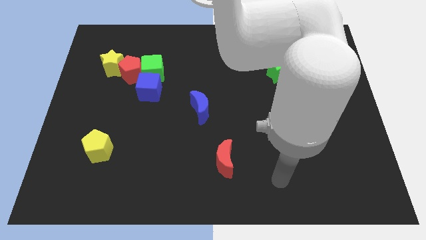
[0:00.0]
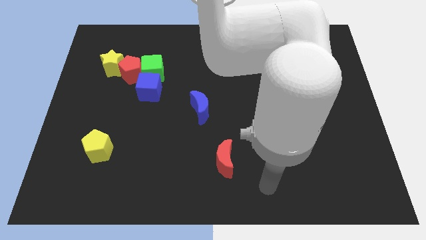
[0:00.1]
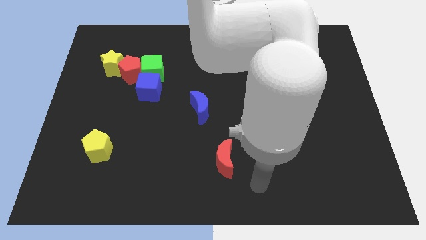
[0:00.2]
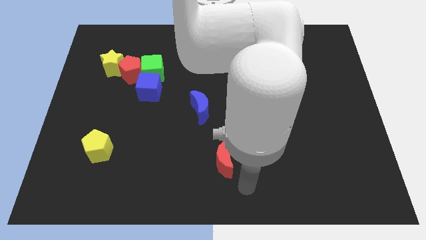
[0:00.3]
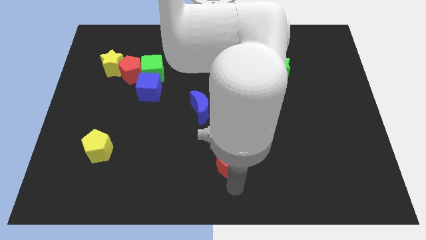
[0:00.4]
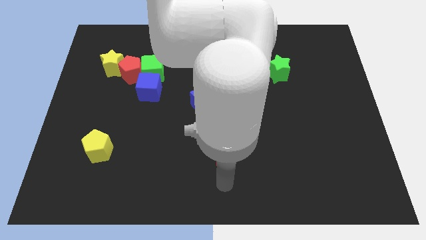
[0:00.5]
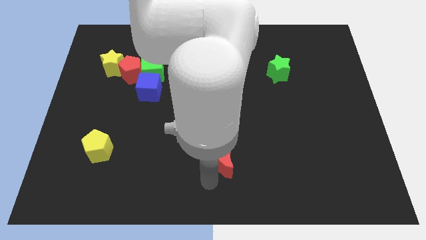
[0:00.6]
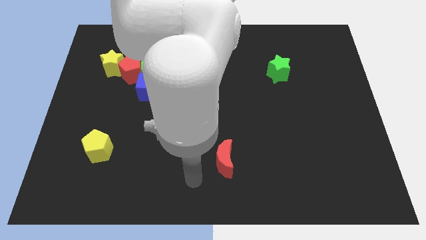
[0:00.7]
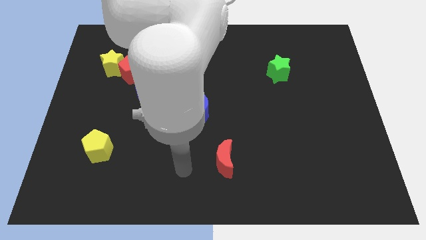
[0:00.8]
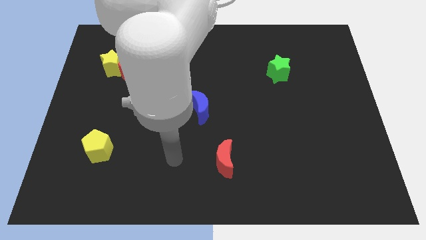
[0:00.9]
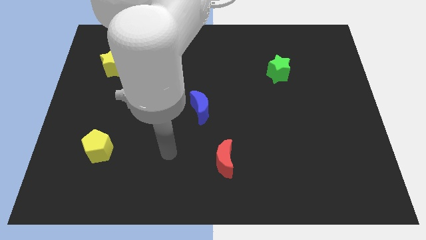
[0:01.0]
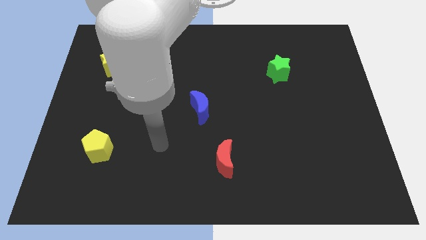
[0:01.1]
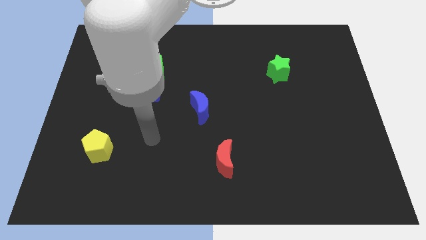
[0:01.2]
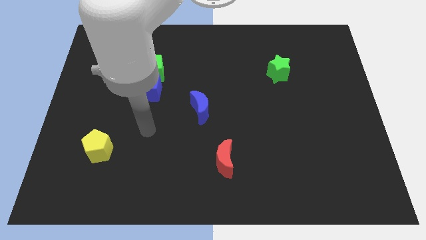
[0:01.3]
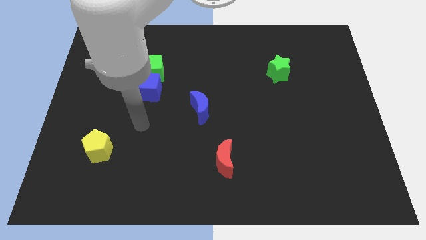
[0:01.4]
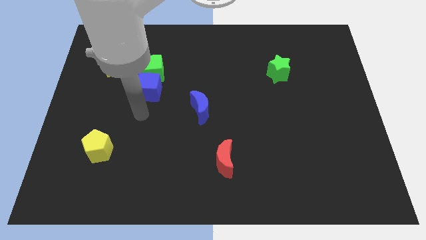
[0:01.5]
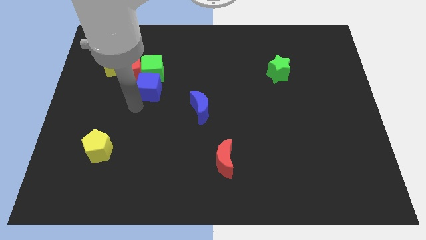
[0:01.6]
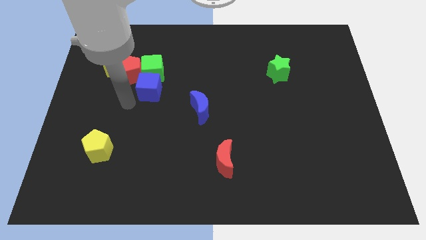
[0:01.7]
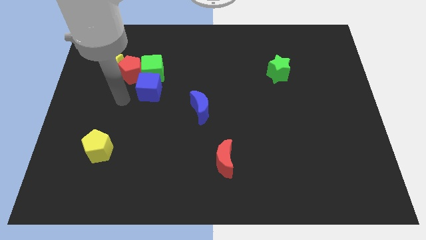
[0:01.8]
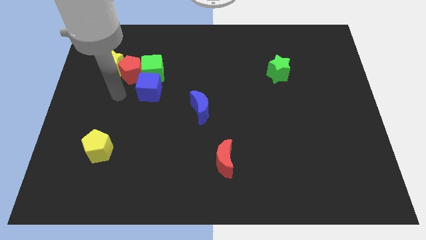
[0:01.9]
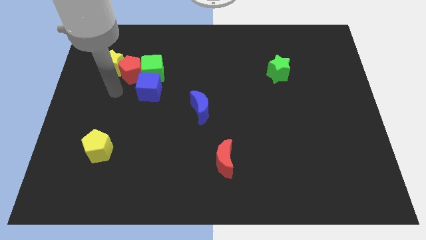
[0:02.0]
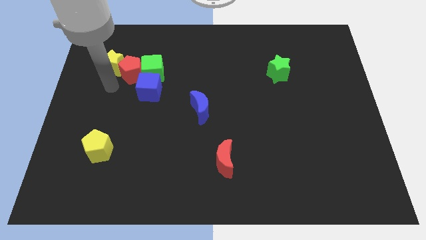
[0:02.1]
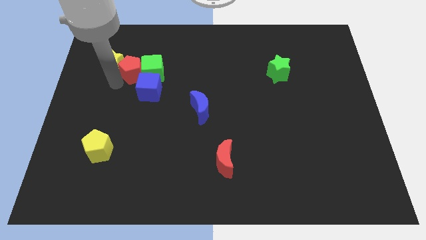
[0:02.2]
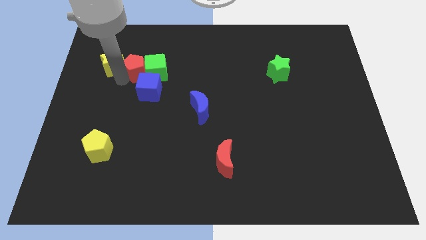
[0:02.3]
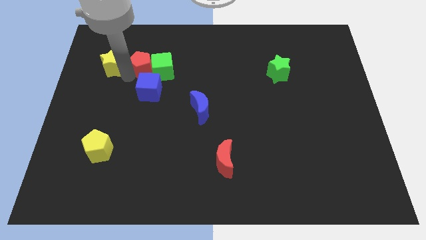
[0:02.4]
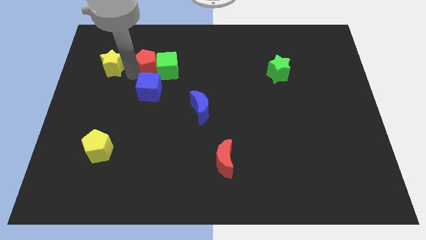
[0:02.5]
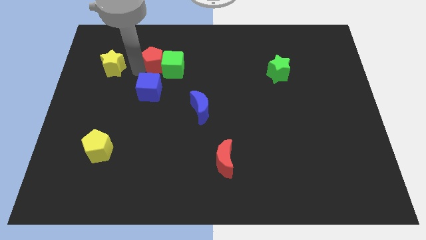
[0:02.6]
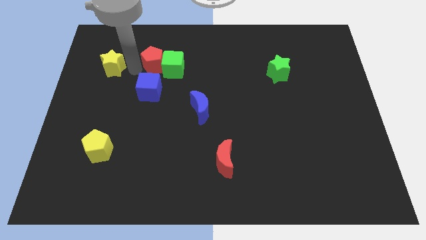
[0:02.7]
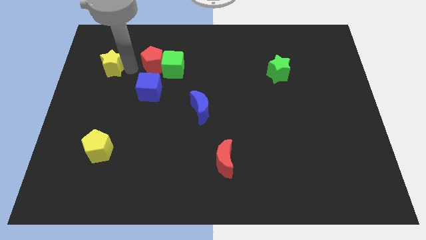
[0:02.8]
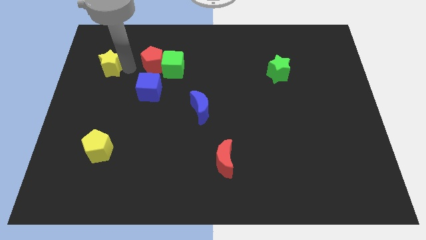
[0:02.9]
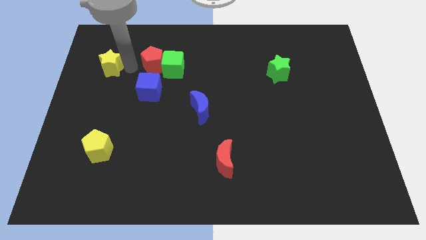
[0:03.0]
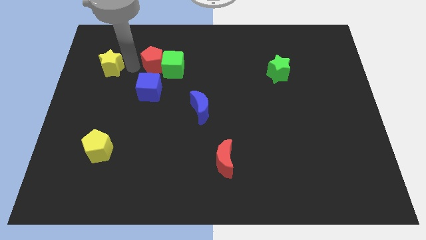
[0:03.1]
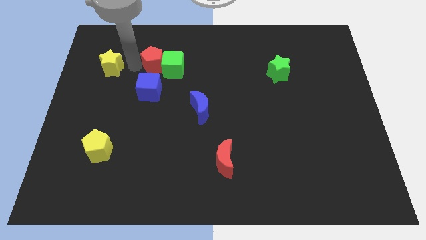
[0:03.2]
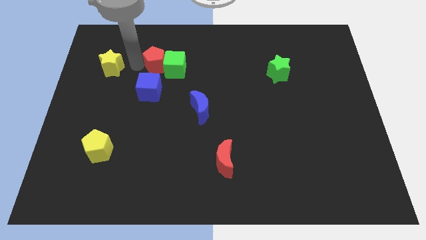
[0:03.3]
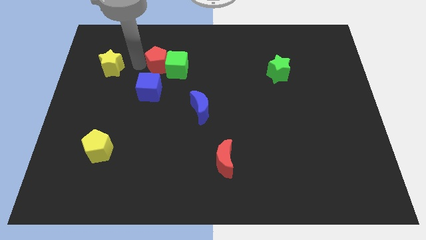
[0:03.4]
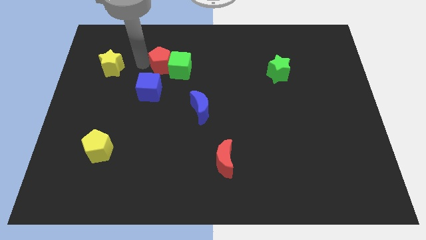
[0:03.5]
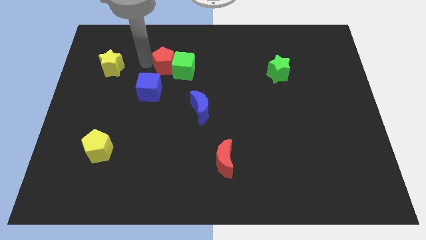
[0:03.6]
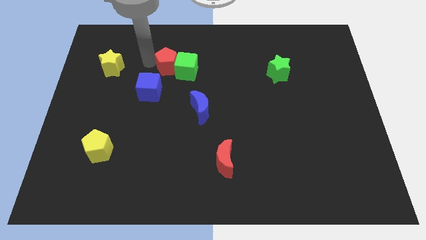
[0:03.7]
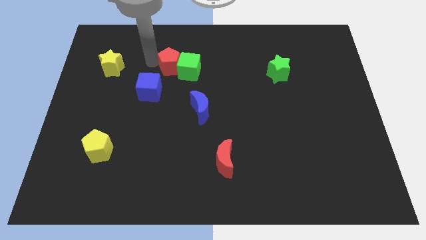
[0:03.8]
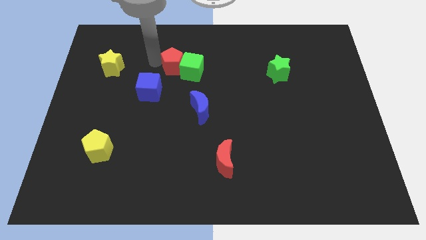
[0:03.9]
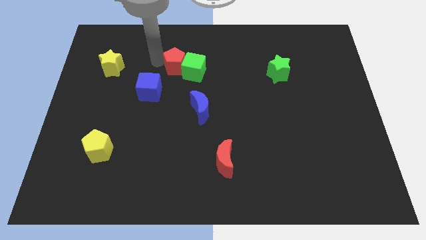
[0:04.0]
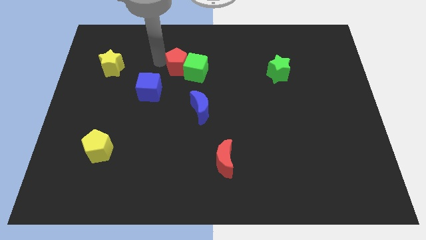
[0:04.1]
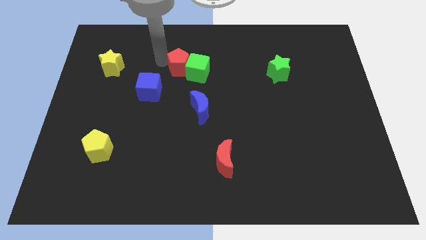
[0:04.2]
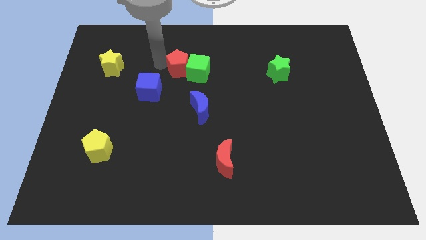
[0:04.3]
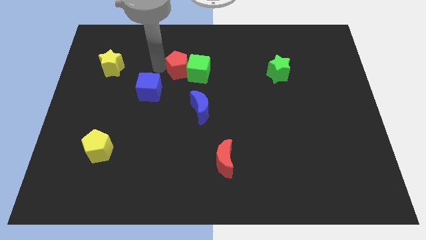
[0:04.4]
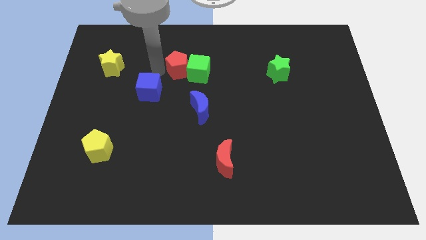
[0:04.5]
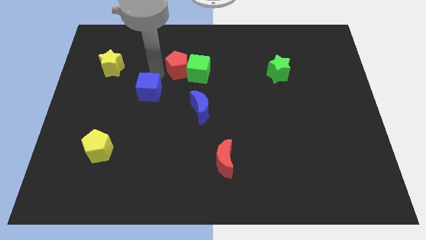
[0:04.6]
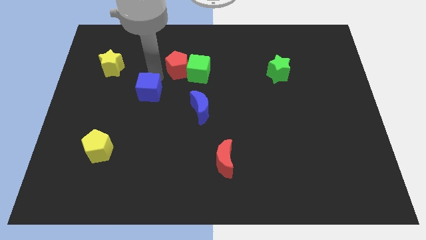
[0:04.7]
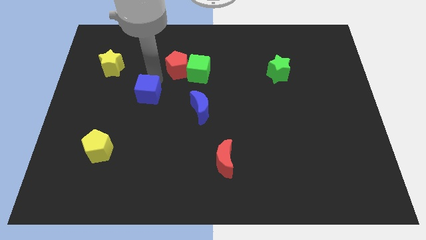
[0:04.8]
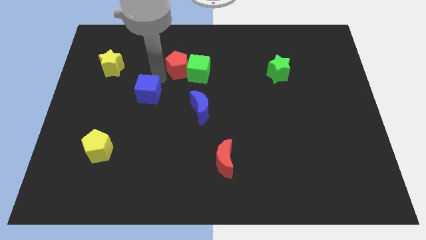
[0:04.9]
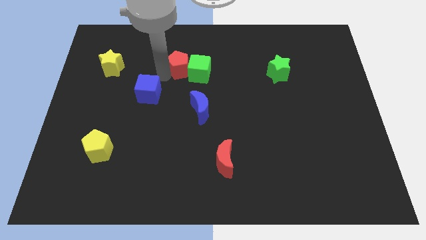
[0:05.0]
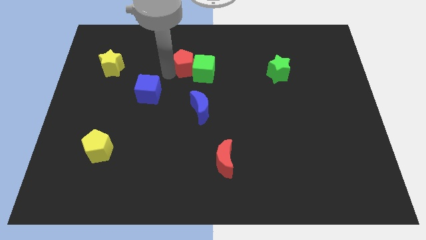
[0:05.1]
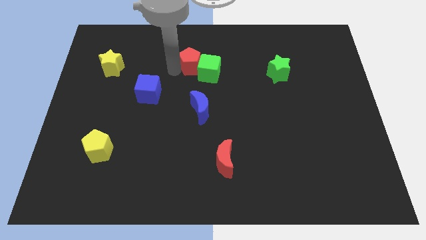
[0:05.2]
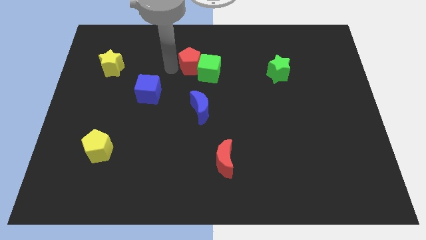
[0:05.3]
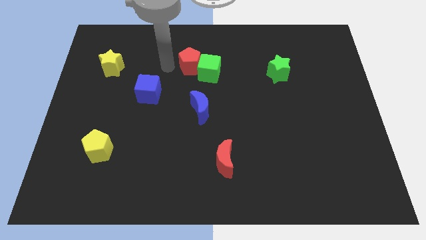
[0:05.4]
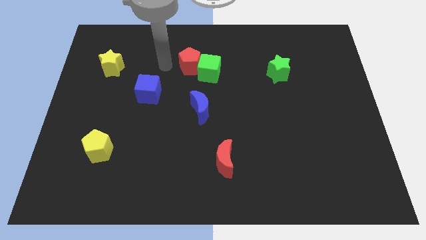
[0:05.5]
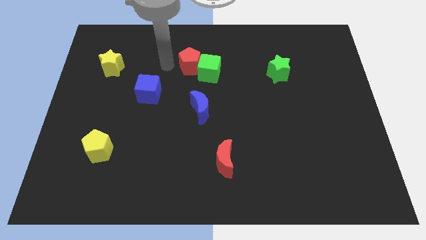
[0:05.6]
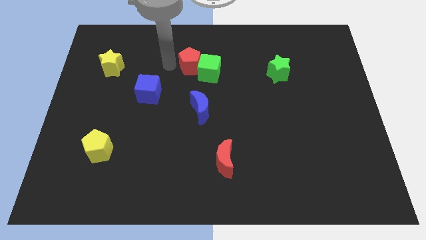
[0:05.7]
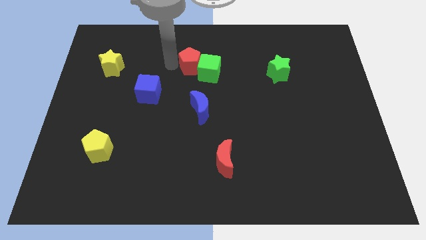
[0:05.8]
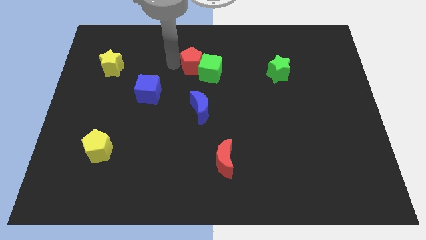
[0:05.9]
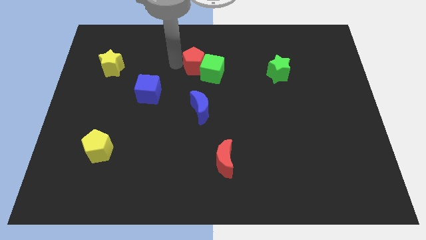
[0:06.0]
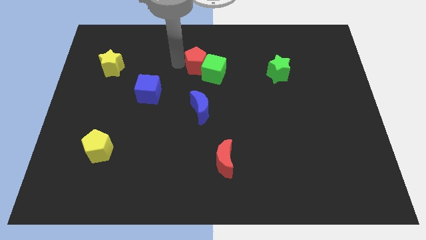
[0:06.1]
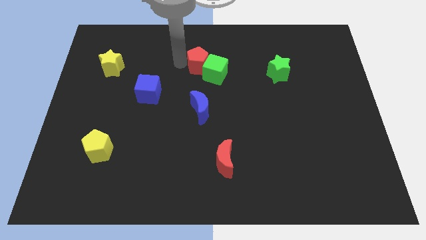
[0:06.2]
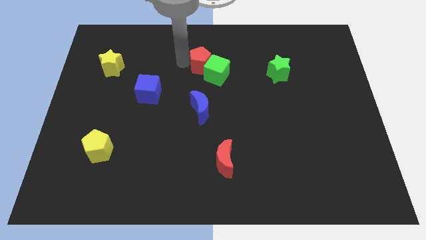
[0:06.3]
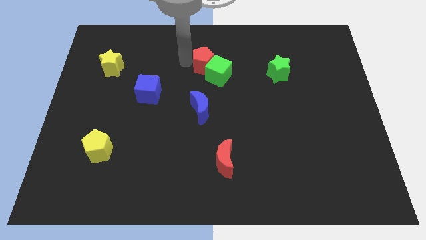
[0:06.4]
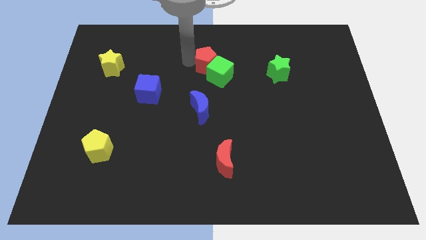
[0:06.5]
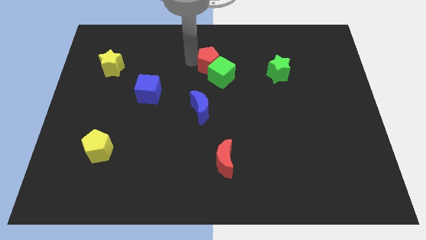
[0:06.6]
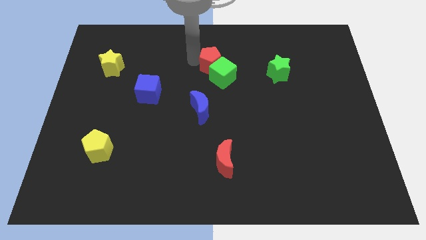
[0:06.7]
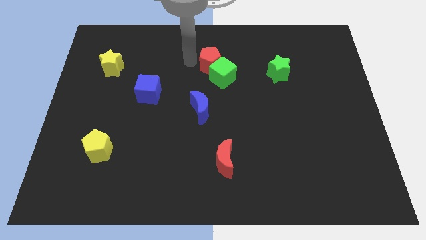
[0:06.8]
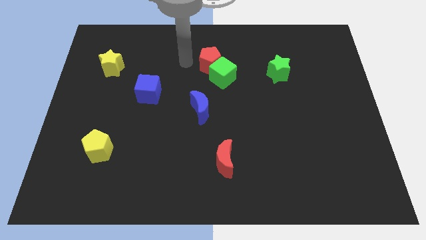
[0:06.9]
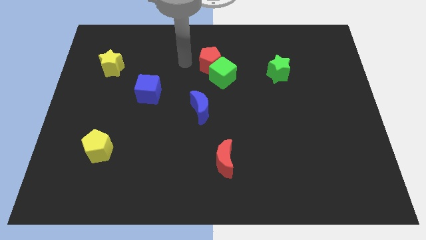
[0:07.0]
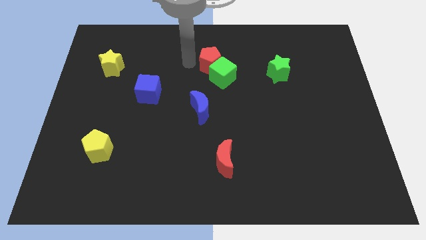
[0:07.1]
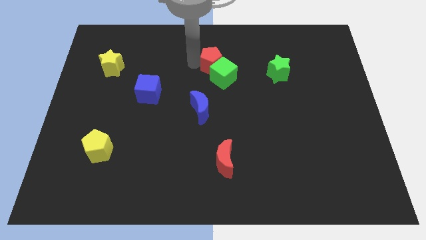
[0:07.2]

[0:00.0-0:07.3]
slide the red pentagon right

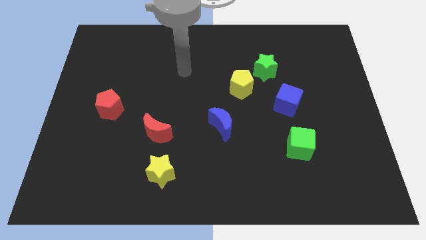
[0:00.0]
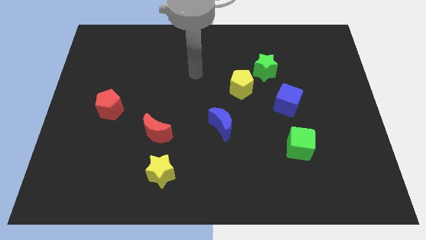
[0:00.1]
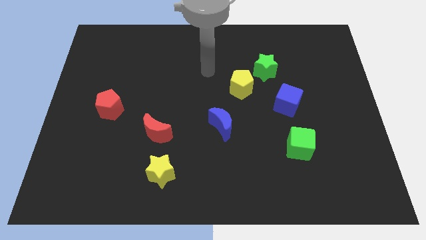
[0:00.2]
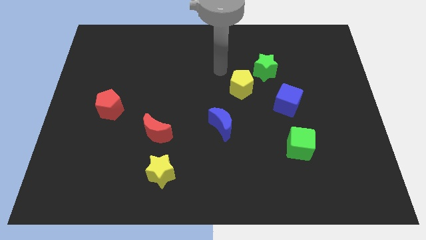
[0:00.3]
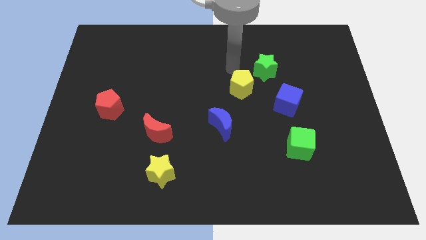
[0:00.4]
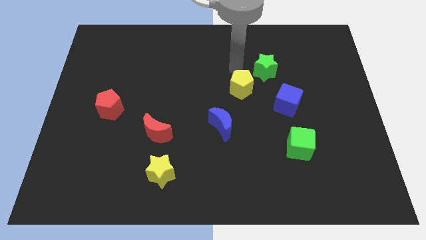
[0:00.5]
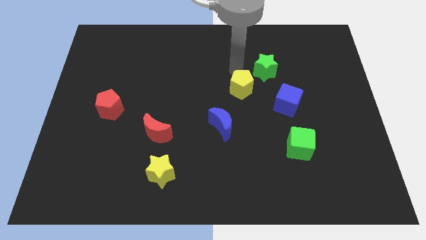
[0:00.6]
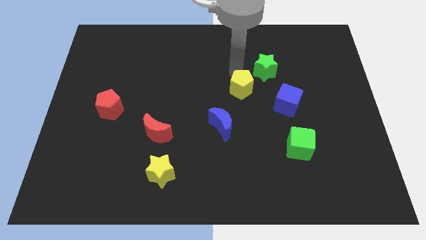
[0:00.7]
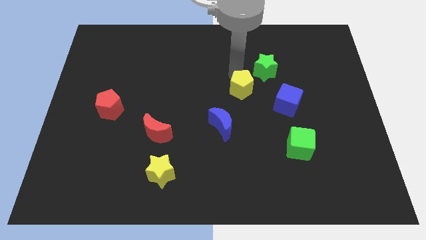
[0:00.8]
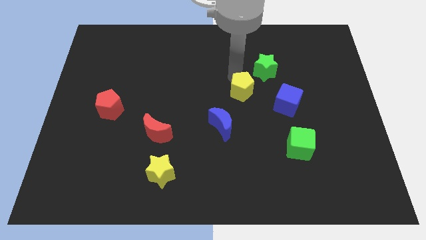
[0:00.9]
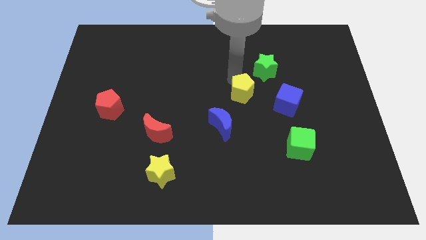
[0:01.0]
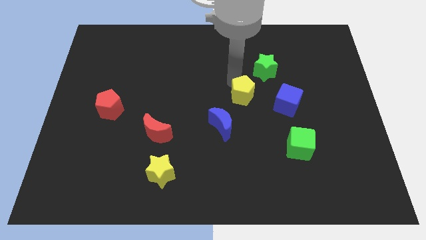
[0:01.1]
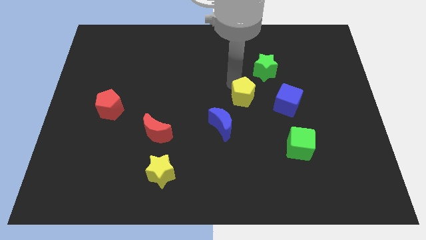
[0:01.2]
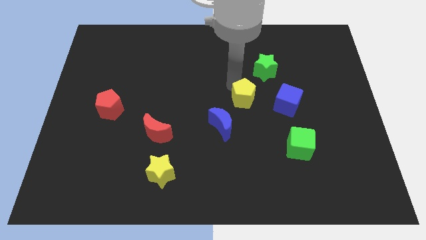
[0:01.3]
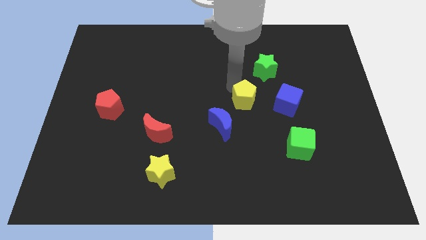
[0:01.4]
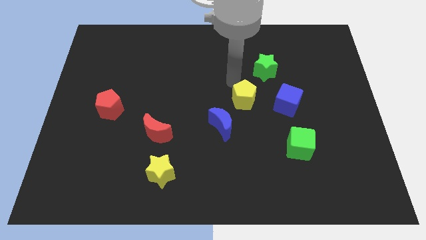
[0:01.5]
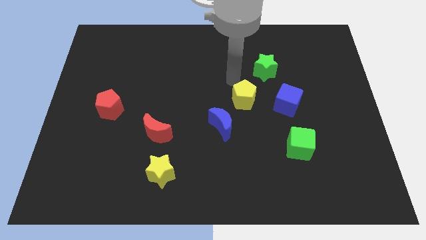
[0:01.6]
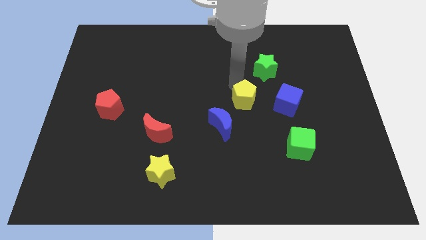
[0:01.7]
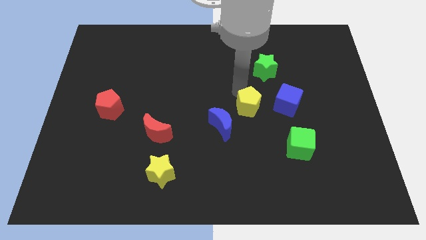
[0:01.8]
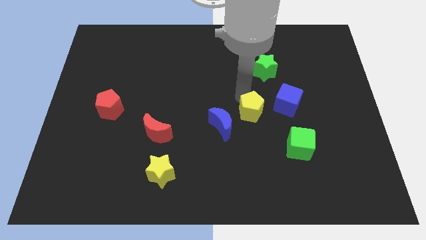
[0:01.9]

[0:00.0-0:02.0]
move the yellow pentagon a bit downwards
